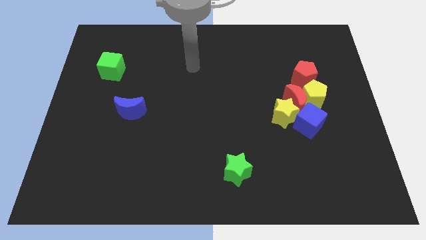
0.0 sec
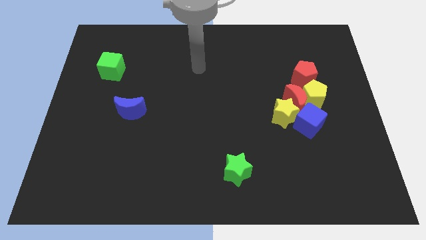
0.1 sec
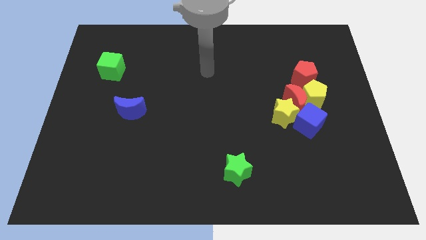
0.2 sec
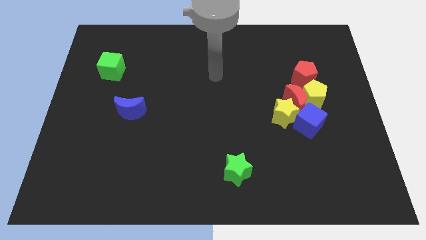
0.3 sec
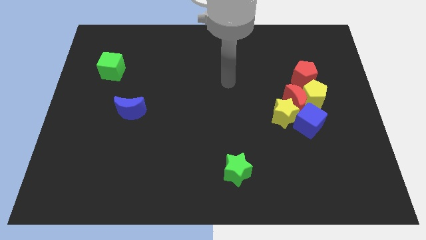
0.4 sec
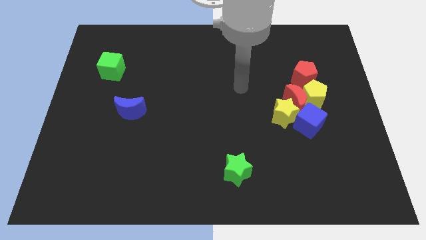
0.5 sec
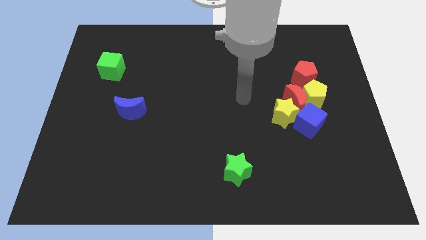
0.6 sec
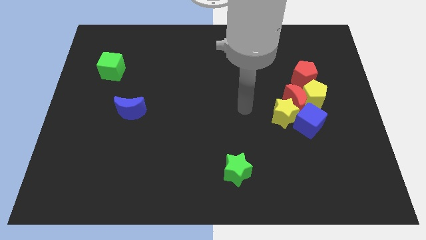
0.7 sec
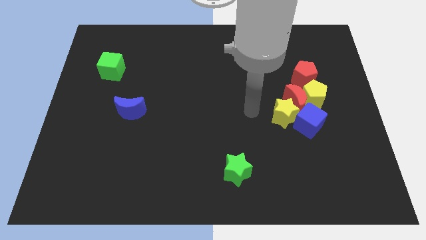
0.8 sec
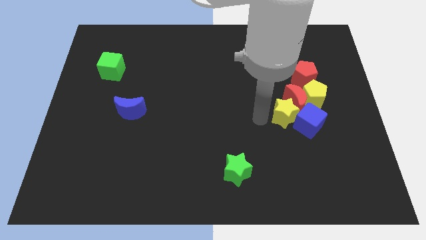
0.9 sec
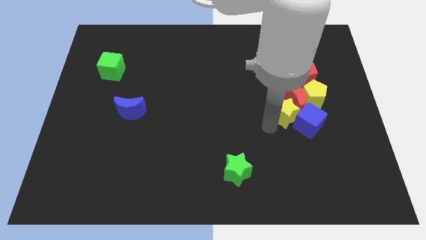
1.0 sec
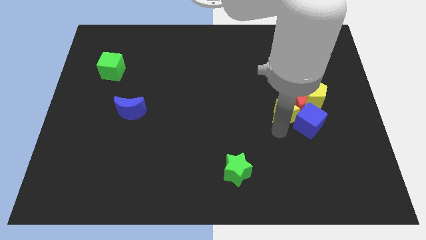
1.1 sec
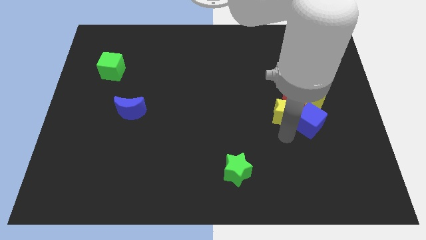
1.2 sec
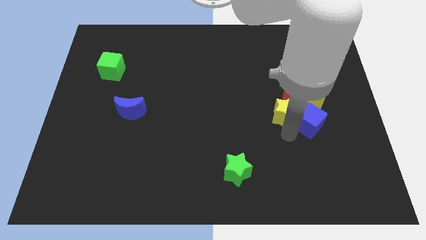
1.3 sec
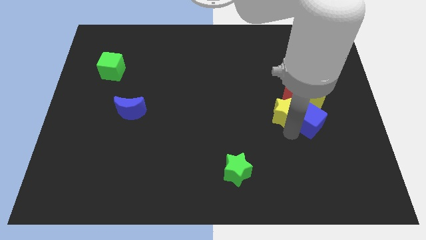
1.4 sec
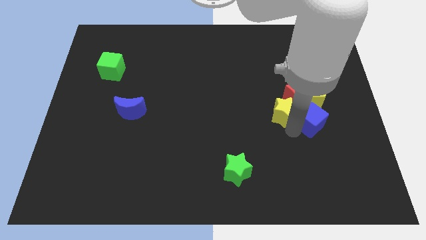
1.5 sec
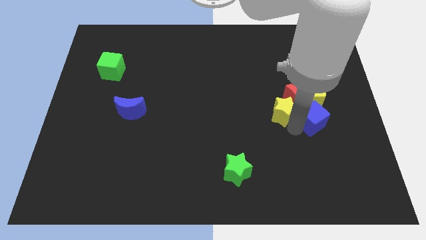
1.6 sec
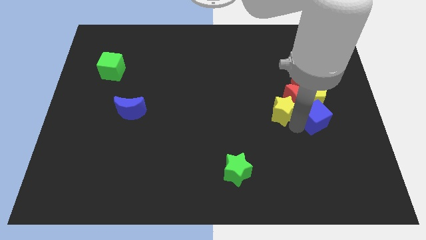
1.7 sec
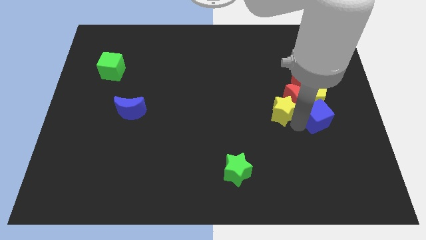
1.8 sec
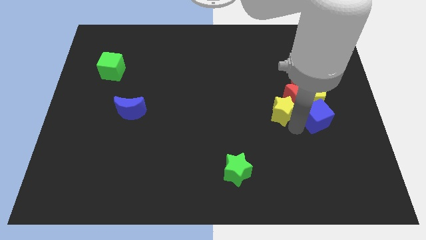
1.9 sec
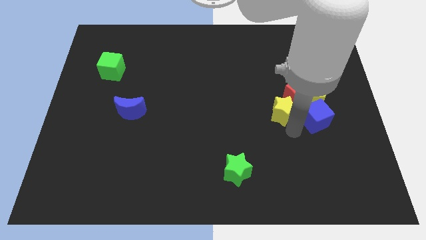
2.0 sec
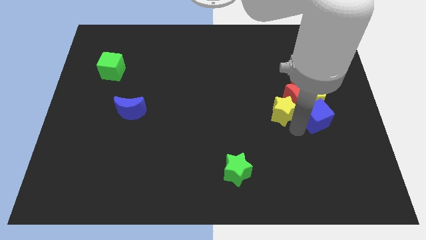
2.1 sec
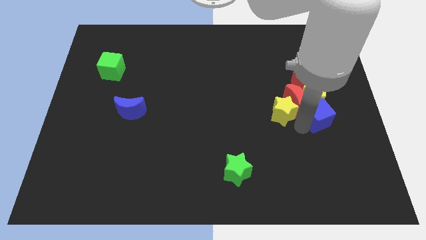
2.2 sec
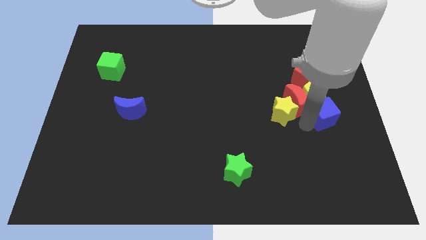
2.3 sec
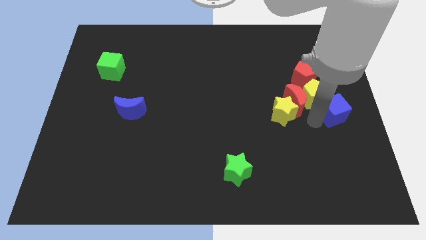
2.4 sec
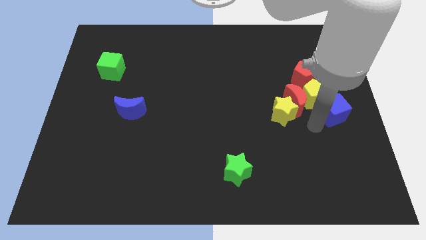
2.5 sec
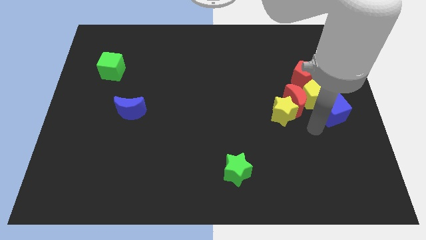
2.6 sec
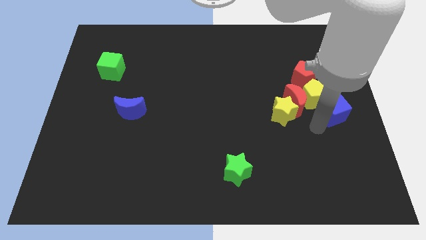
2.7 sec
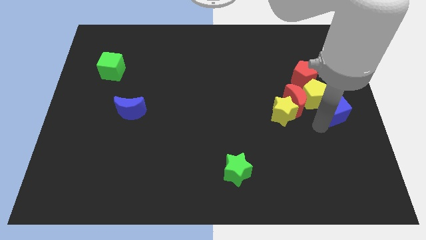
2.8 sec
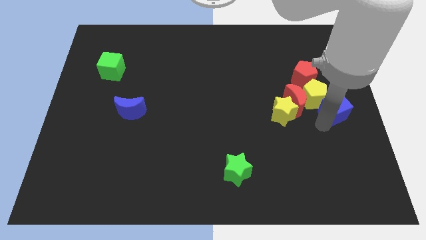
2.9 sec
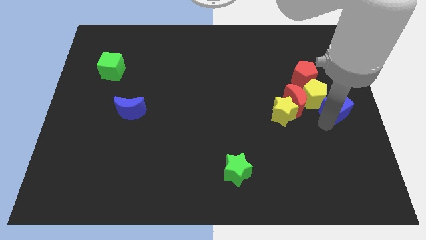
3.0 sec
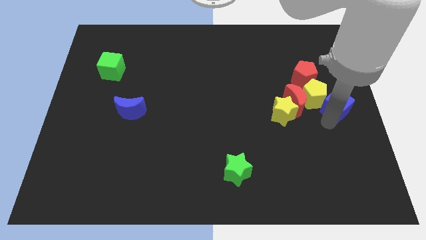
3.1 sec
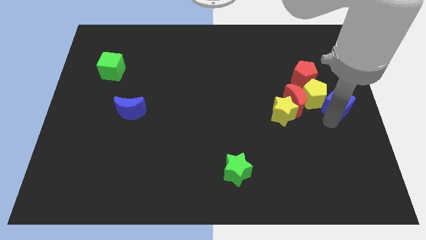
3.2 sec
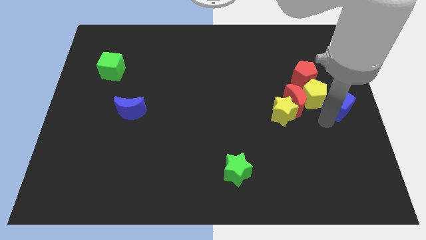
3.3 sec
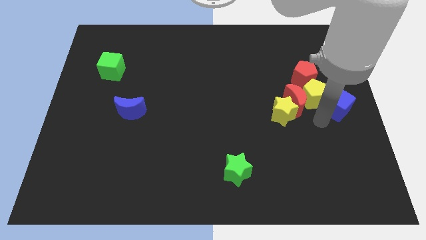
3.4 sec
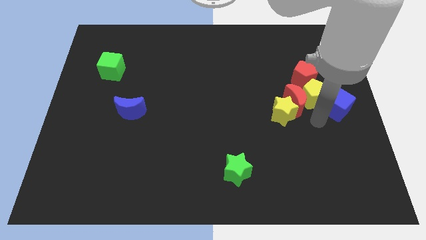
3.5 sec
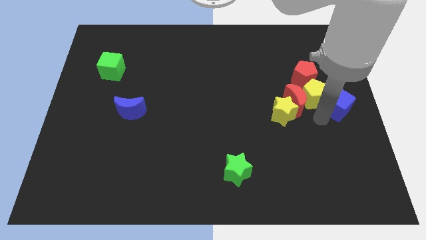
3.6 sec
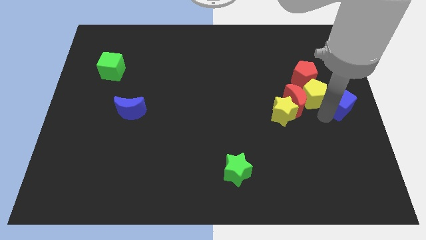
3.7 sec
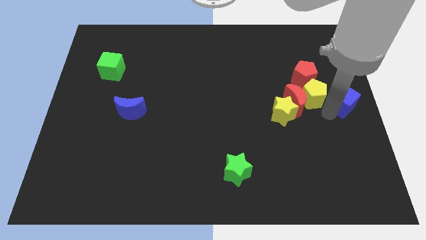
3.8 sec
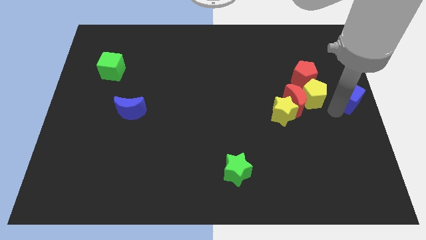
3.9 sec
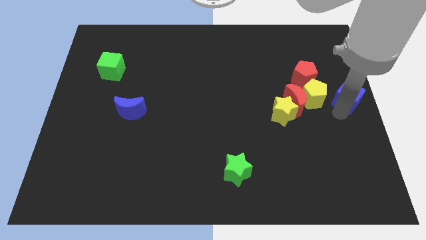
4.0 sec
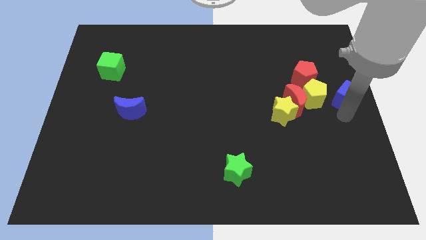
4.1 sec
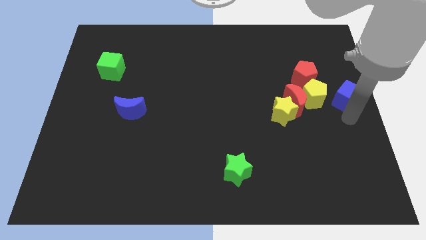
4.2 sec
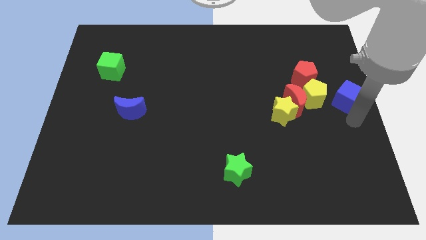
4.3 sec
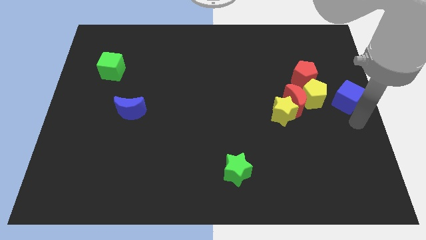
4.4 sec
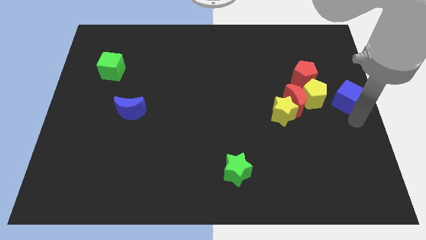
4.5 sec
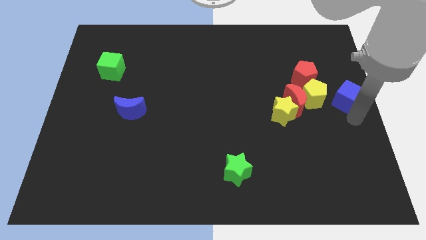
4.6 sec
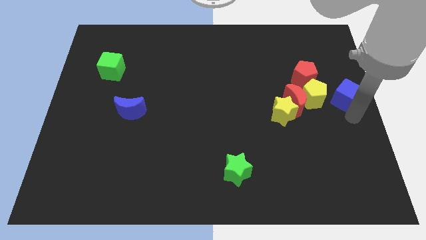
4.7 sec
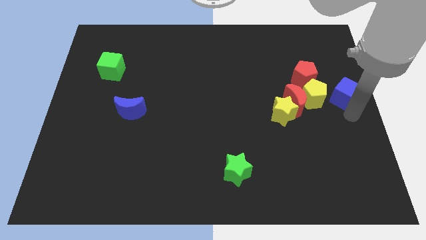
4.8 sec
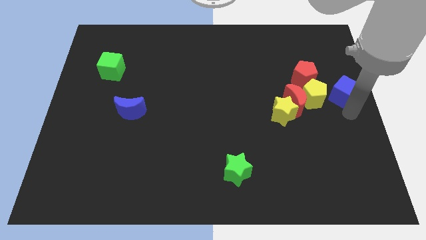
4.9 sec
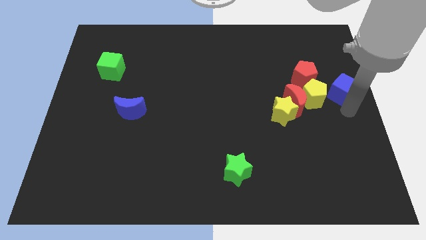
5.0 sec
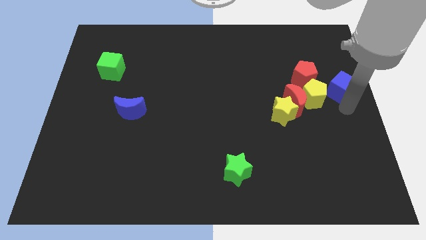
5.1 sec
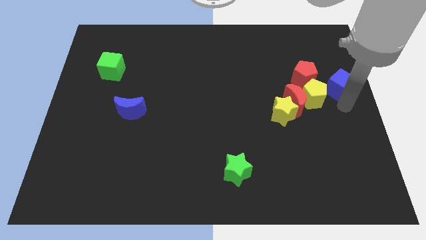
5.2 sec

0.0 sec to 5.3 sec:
slightly move the blue cube up

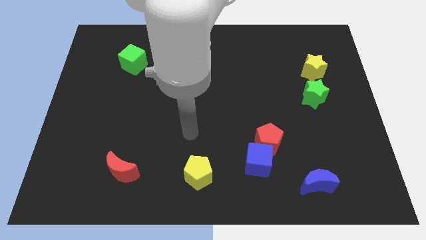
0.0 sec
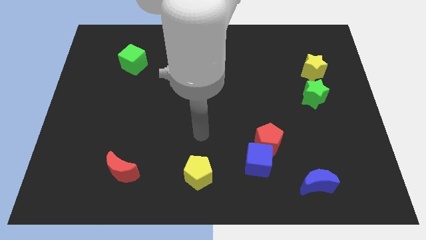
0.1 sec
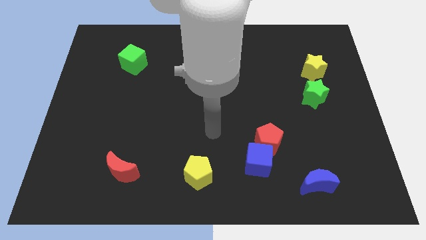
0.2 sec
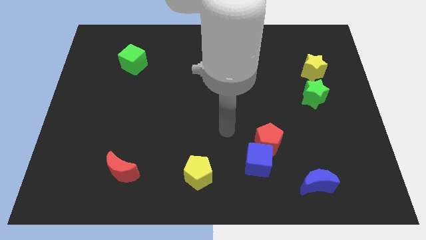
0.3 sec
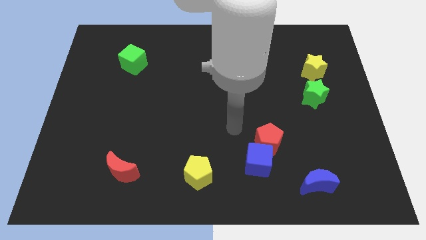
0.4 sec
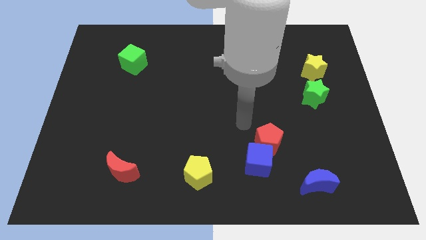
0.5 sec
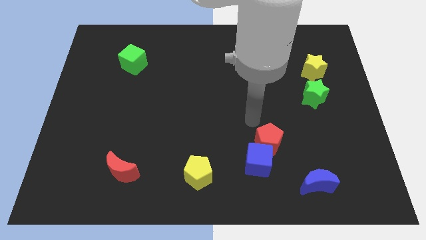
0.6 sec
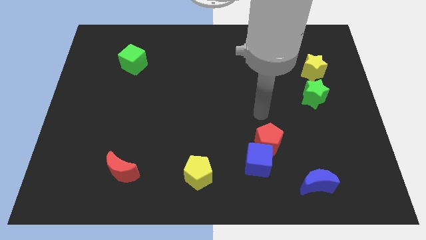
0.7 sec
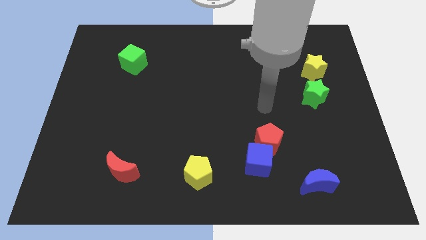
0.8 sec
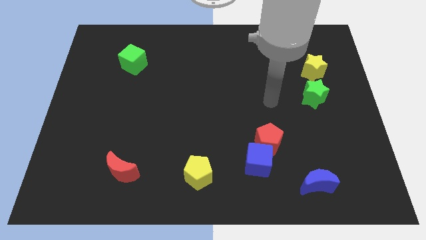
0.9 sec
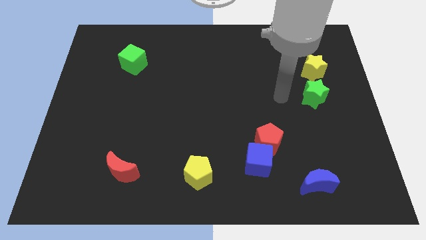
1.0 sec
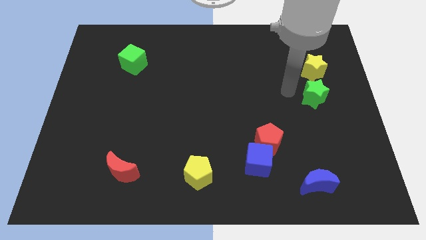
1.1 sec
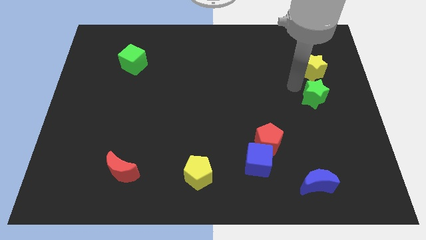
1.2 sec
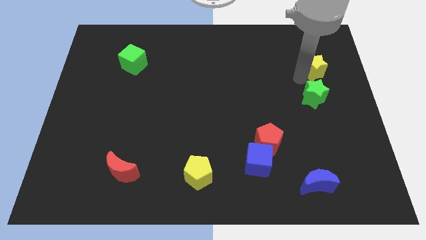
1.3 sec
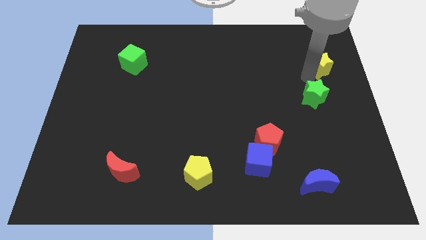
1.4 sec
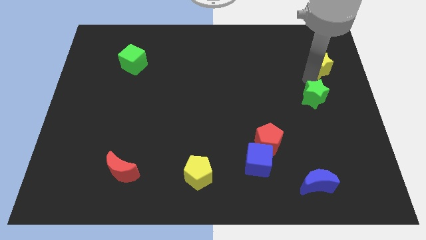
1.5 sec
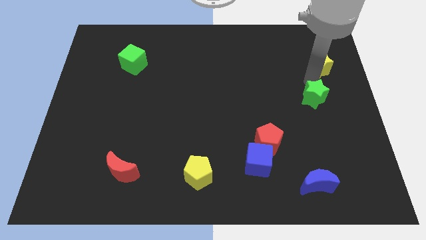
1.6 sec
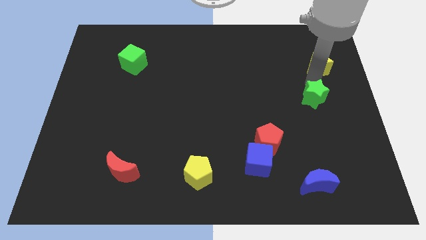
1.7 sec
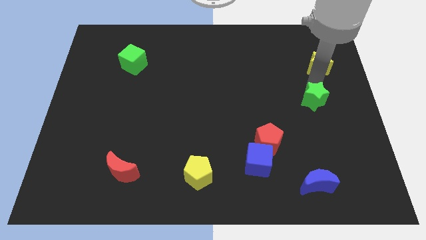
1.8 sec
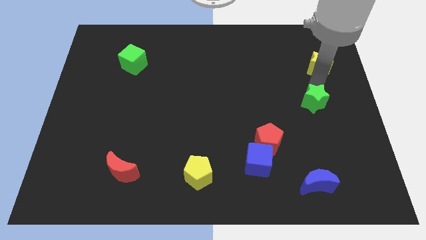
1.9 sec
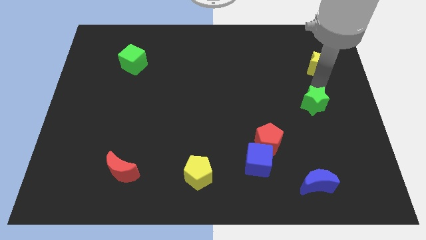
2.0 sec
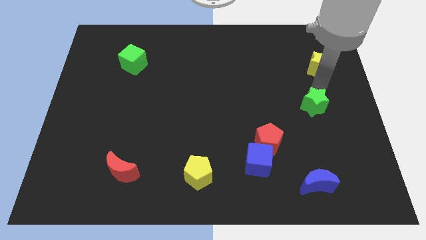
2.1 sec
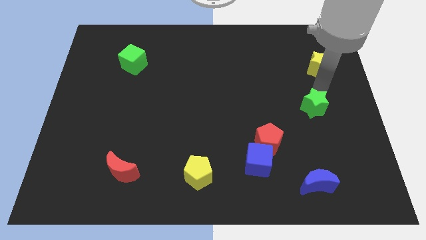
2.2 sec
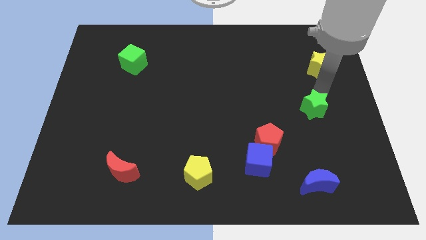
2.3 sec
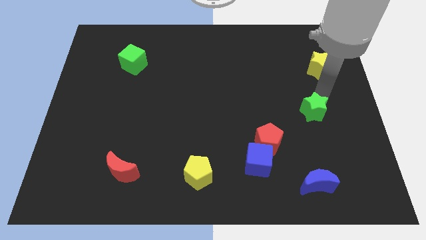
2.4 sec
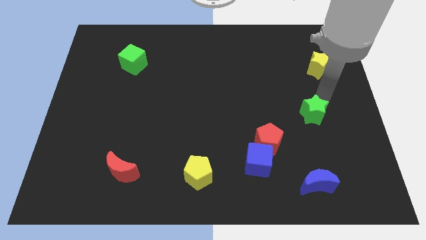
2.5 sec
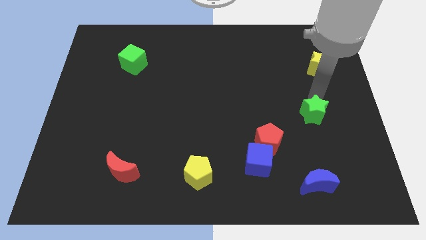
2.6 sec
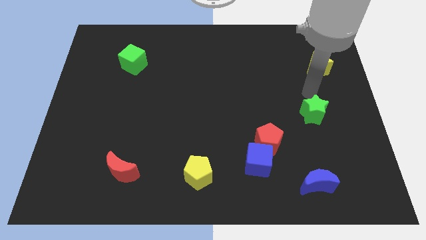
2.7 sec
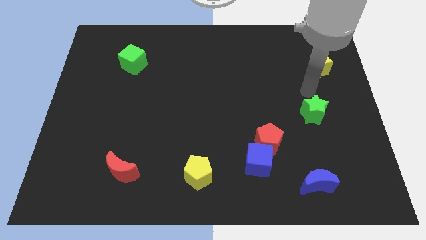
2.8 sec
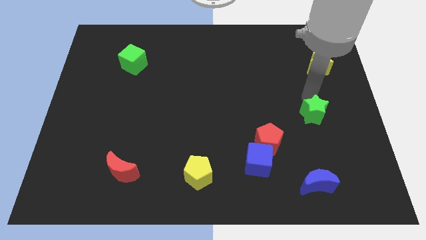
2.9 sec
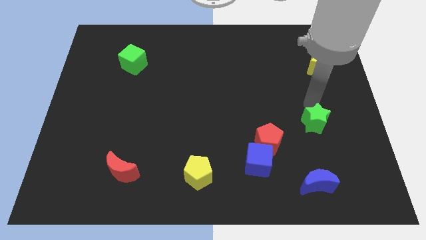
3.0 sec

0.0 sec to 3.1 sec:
push the green star a little down
